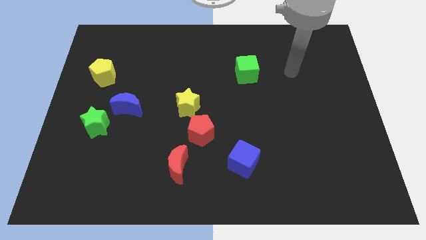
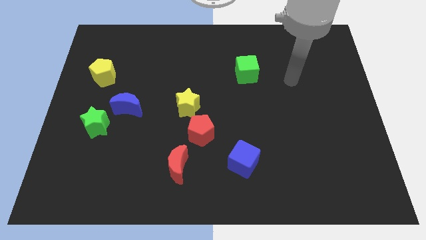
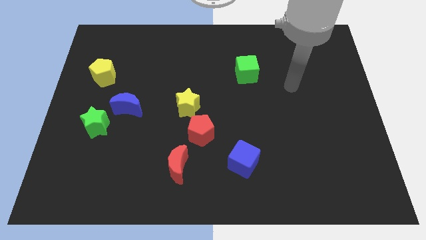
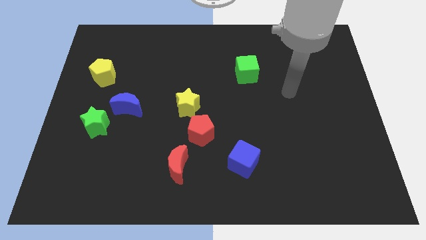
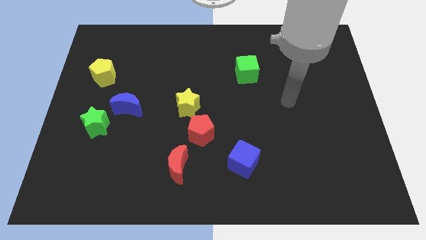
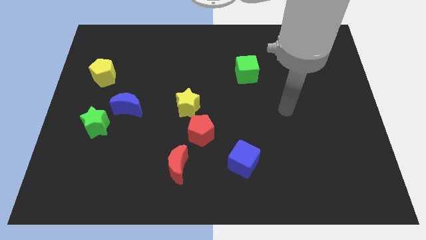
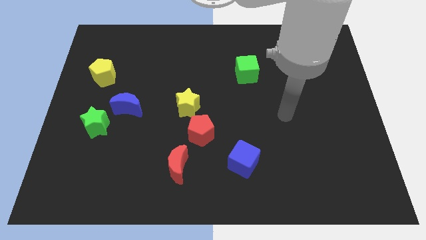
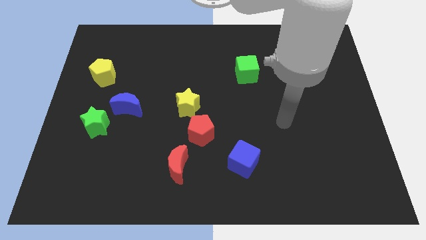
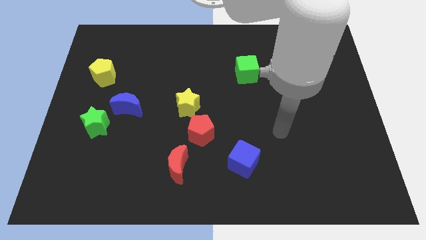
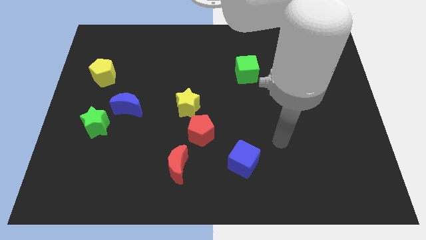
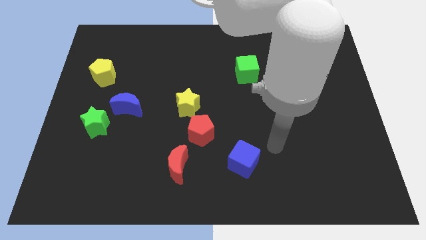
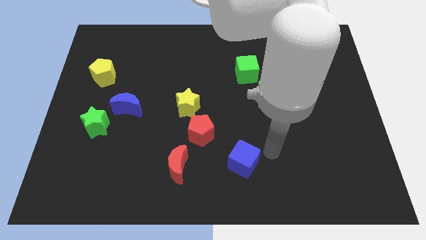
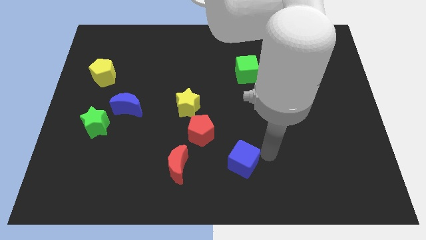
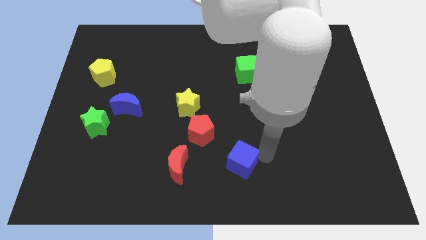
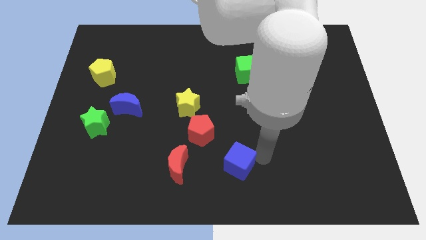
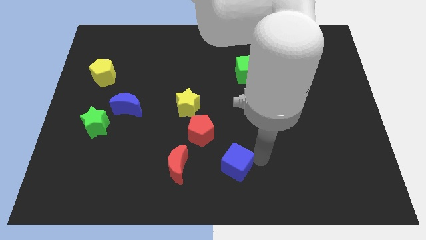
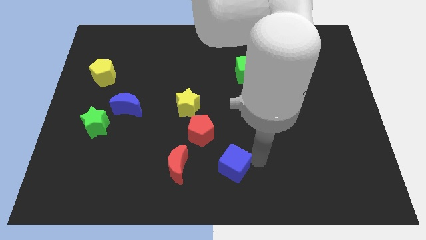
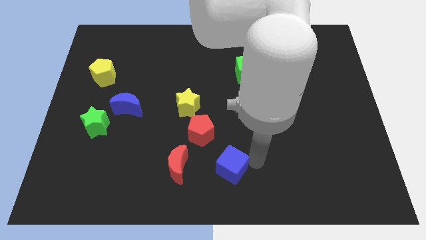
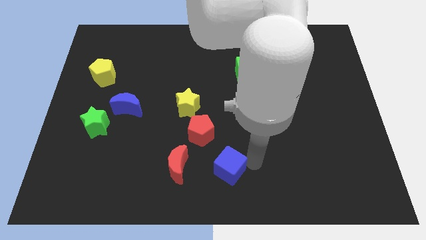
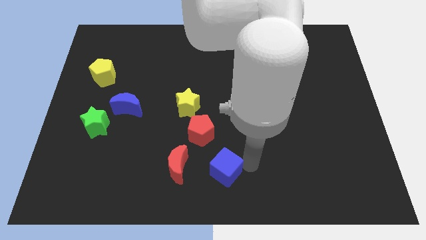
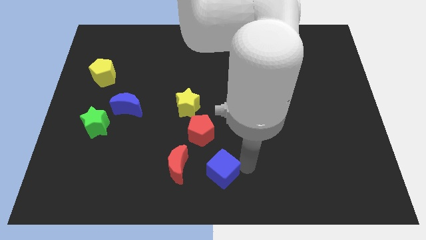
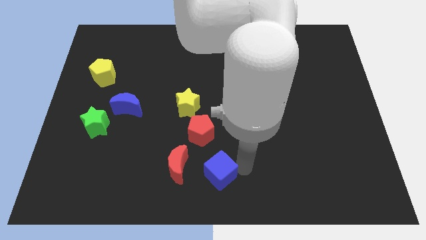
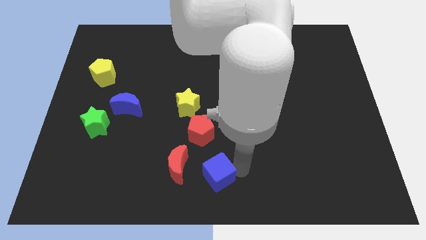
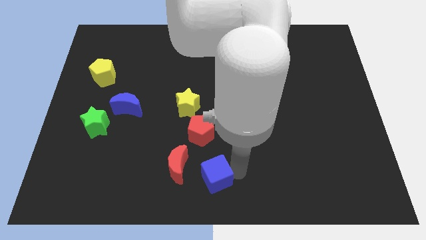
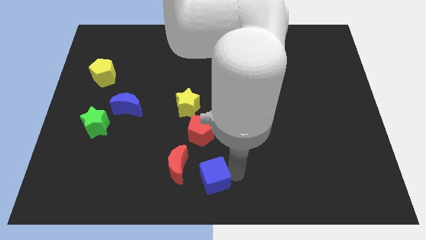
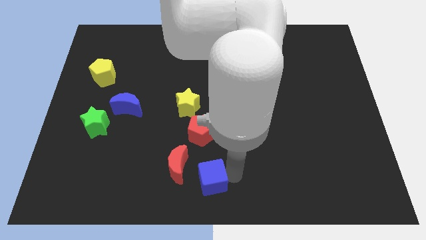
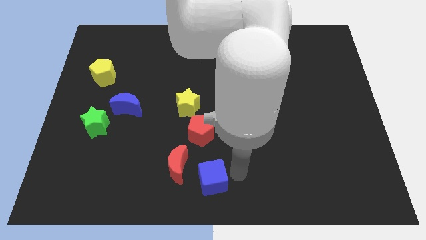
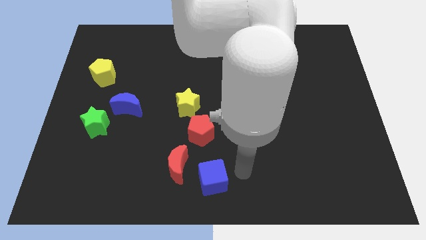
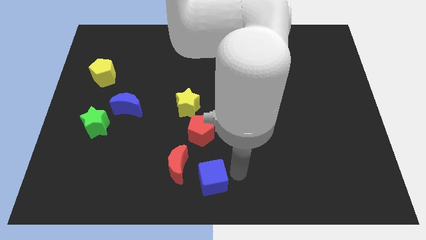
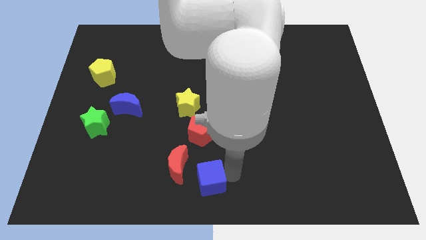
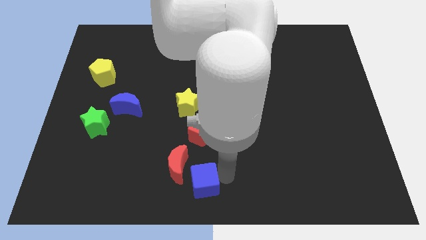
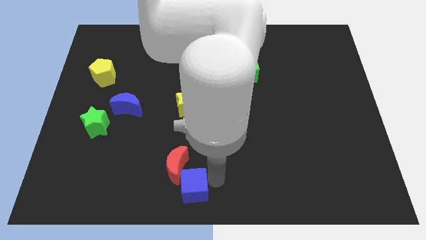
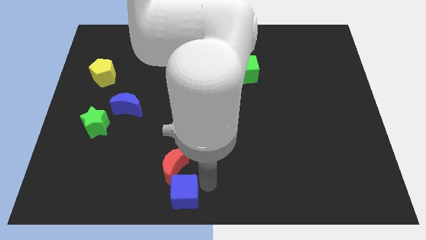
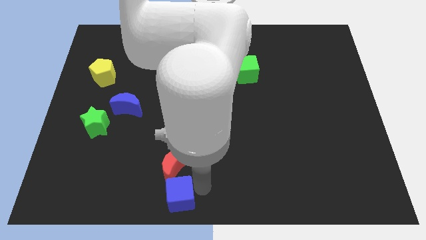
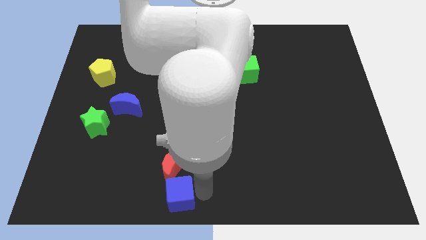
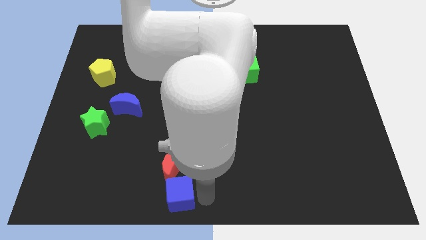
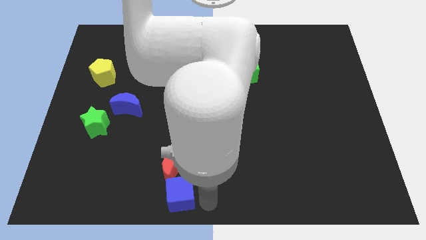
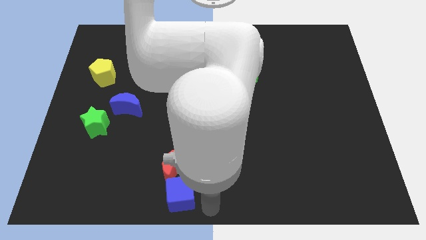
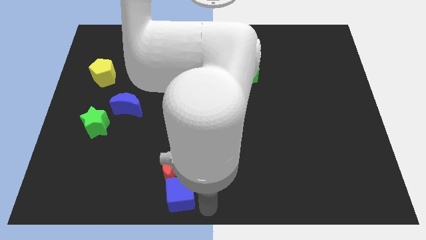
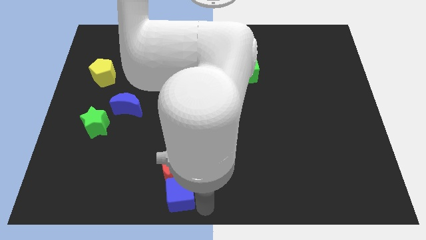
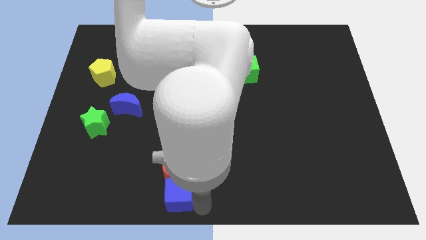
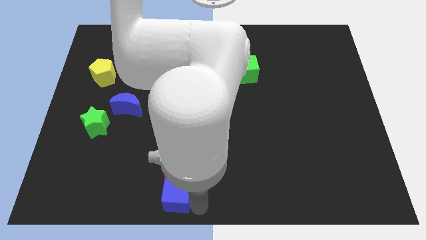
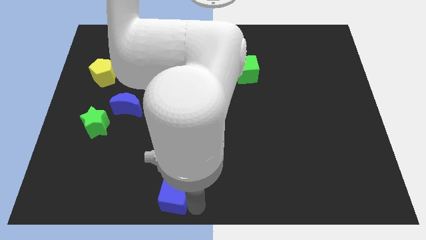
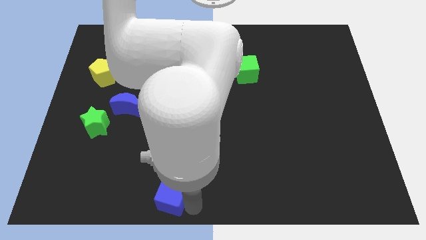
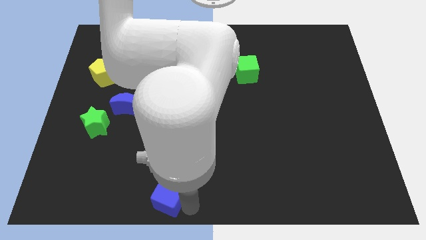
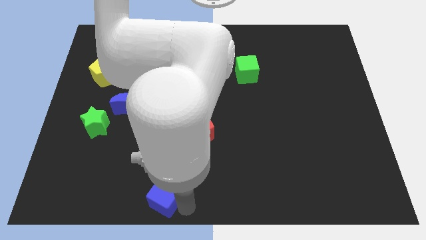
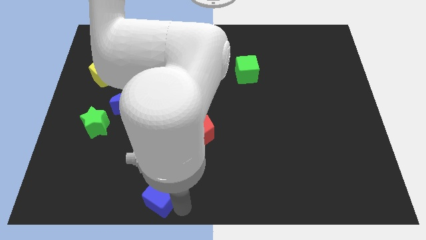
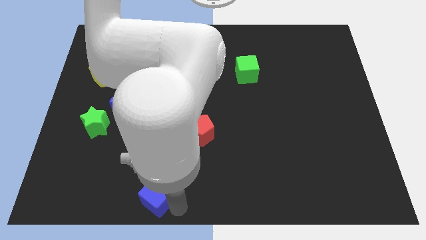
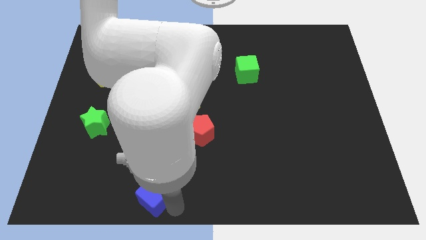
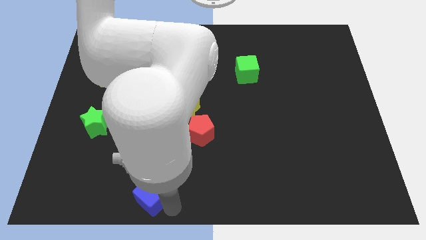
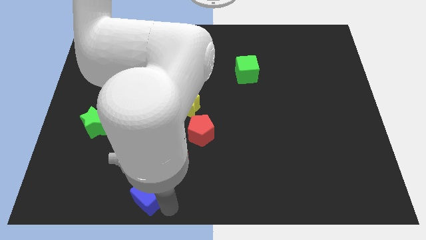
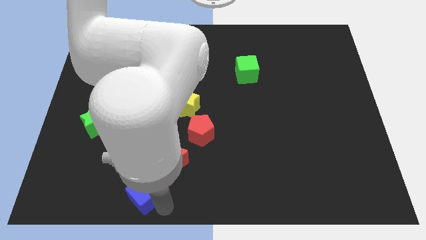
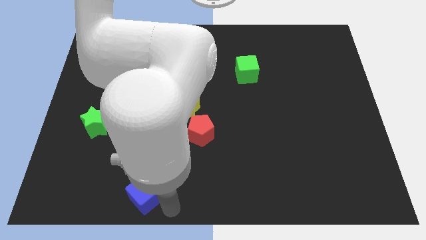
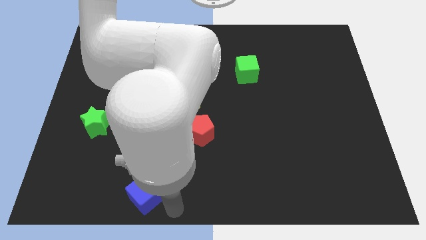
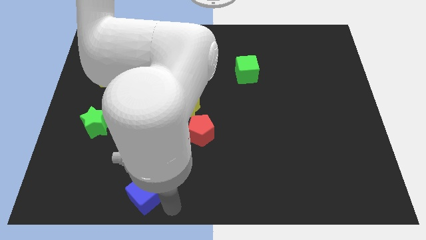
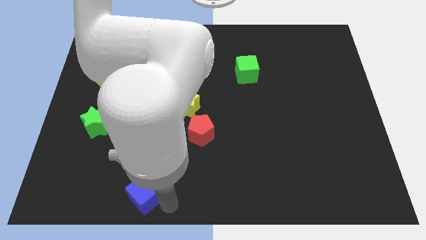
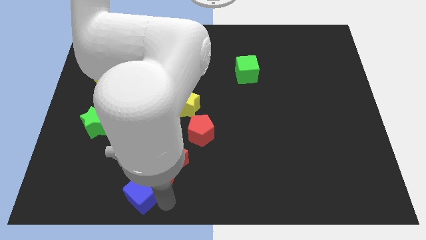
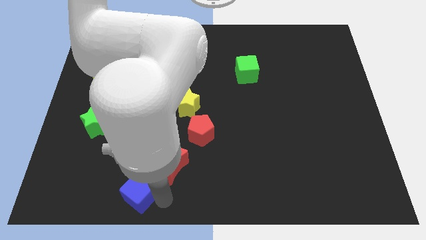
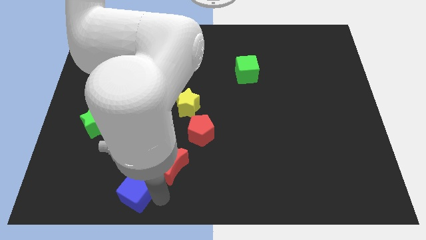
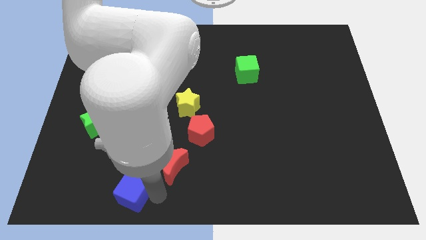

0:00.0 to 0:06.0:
slide the blue cube to the left

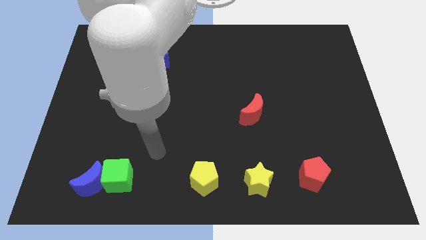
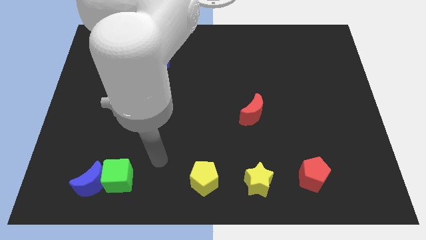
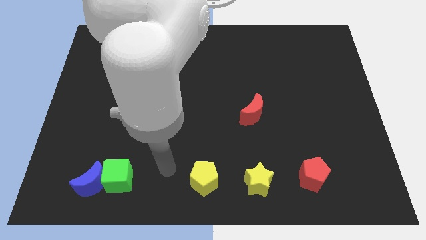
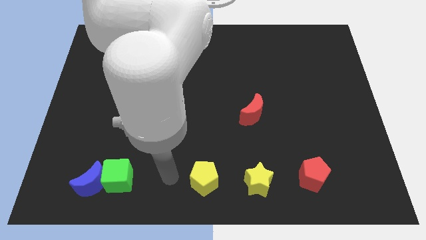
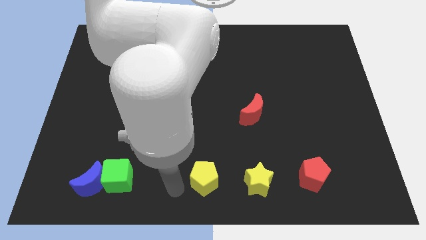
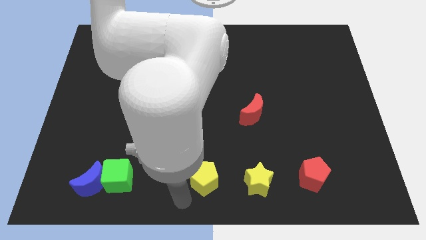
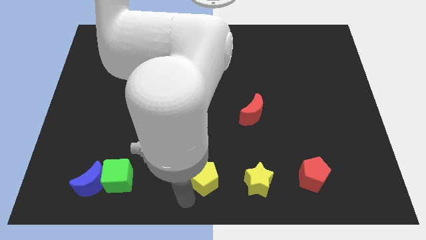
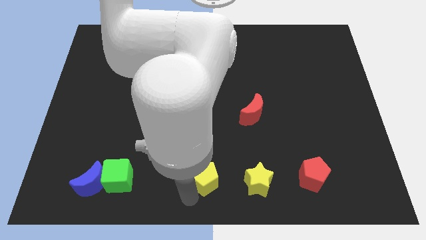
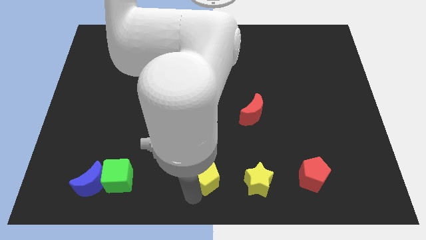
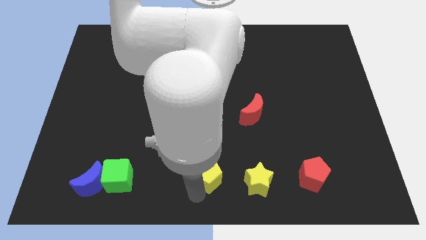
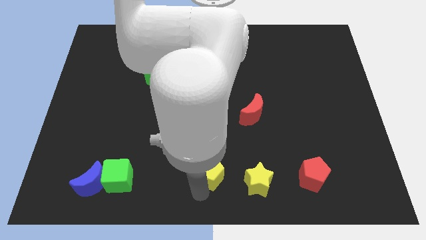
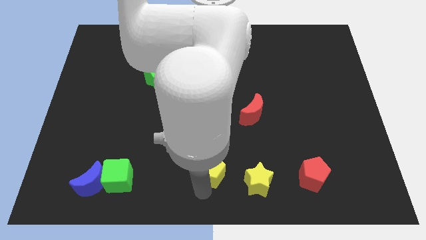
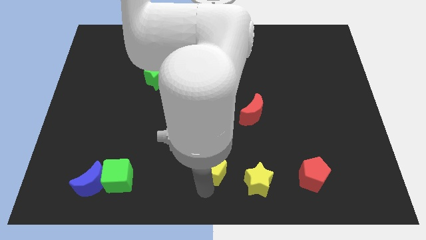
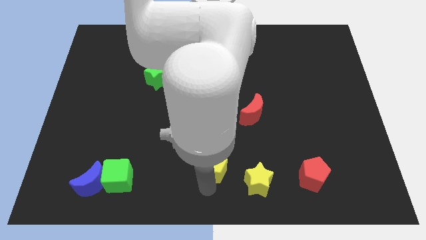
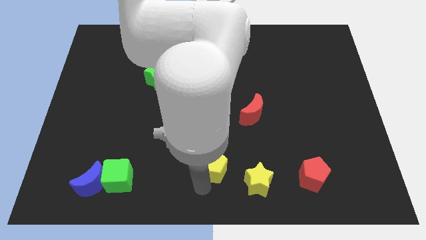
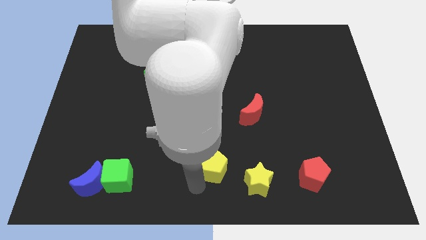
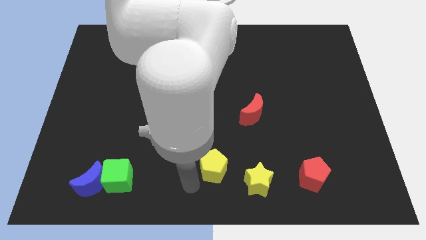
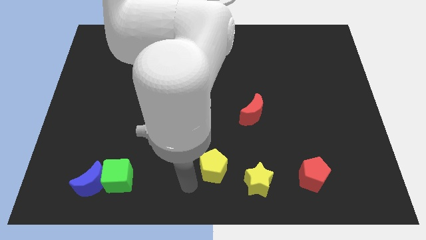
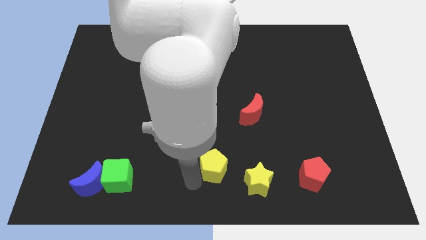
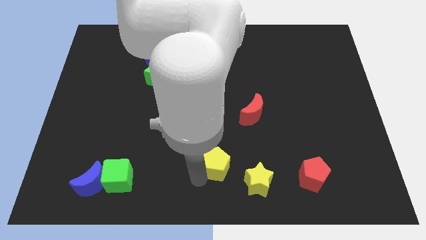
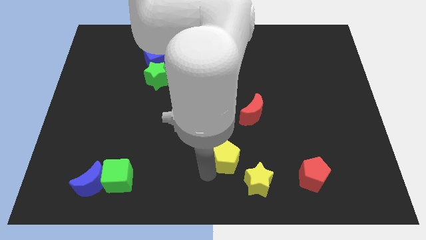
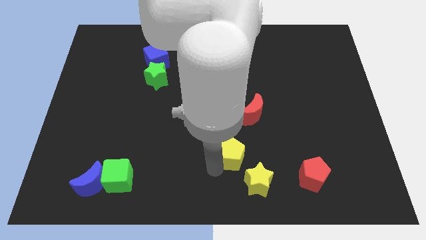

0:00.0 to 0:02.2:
slightly slide the yellow pentagon diagonally up and to the right
